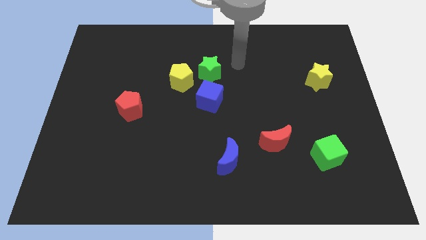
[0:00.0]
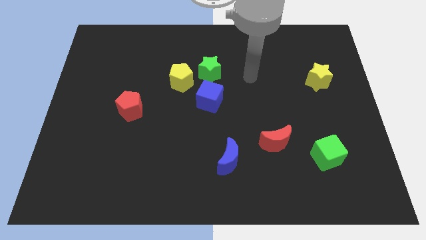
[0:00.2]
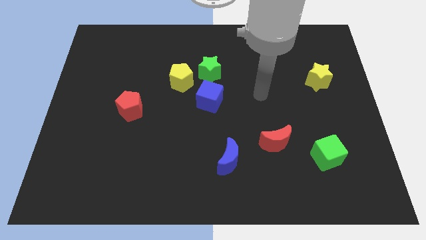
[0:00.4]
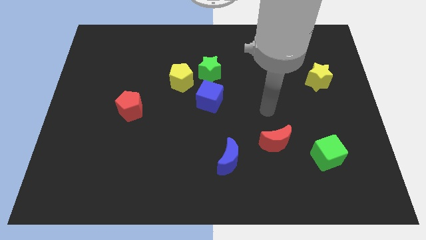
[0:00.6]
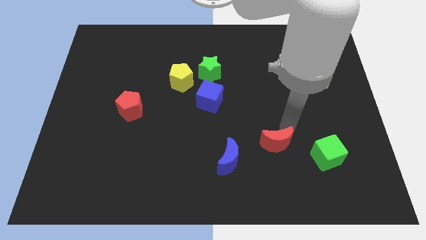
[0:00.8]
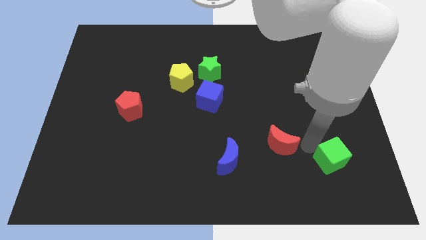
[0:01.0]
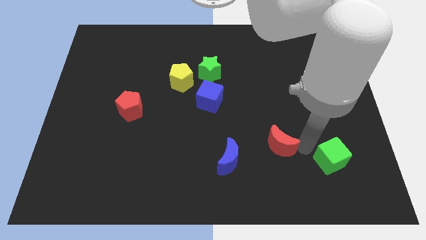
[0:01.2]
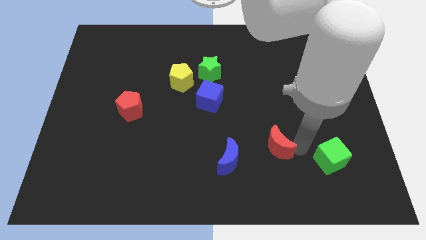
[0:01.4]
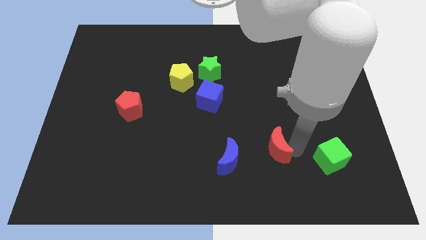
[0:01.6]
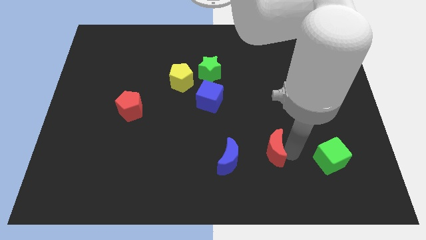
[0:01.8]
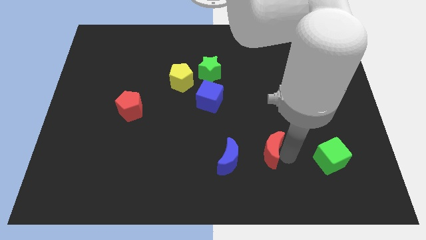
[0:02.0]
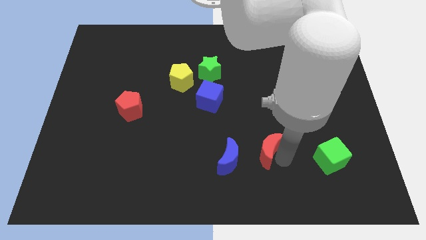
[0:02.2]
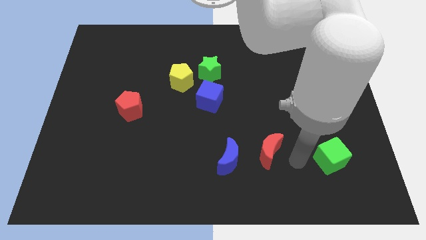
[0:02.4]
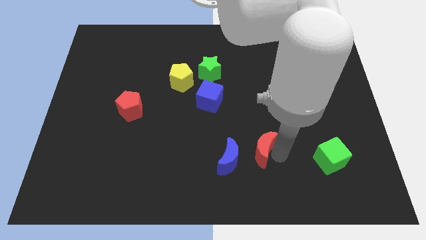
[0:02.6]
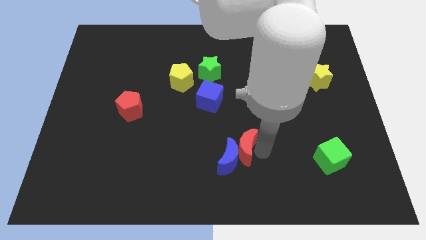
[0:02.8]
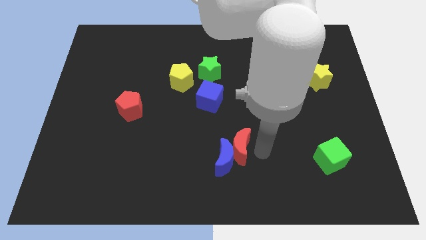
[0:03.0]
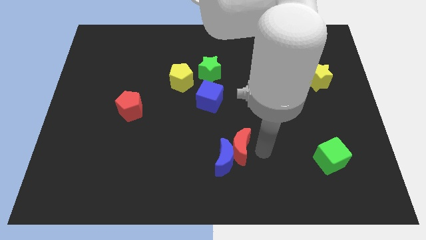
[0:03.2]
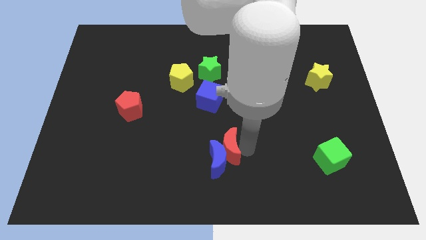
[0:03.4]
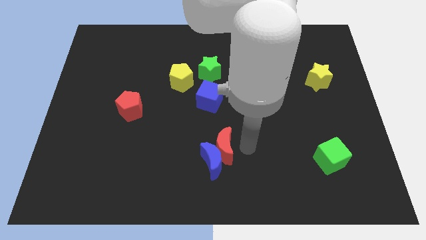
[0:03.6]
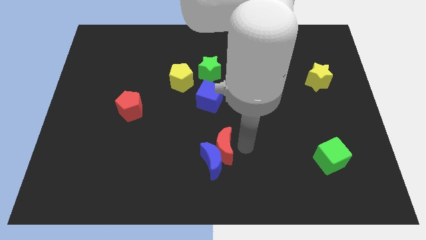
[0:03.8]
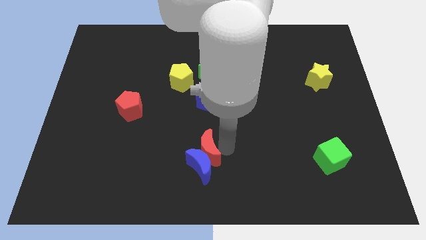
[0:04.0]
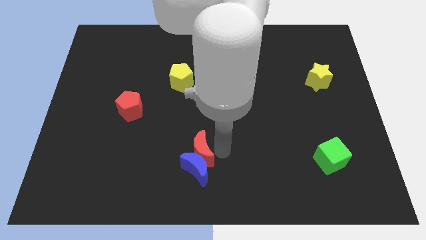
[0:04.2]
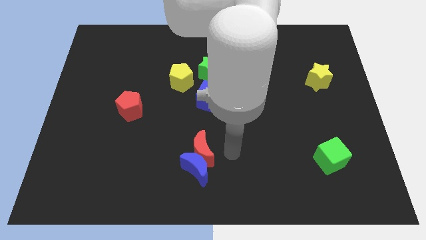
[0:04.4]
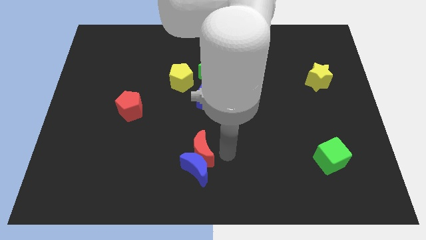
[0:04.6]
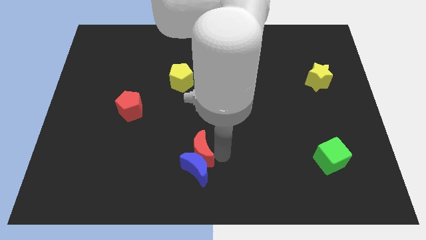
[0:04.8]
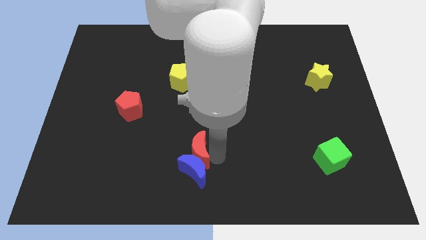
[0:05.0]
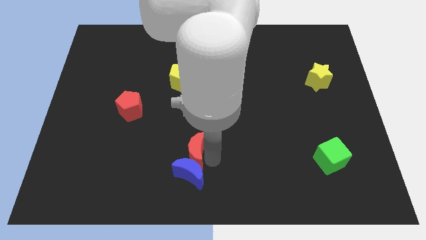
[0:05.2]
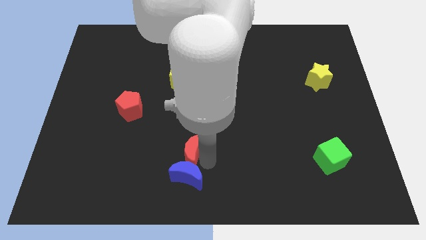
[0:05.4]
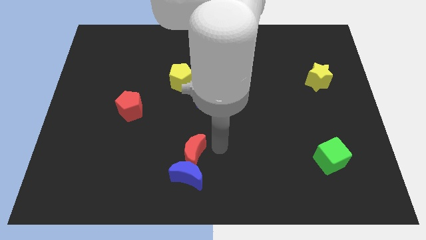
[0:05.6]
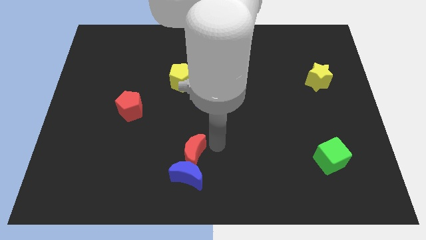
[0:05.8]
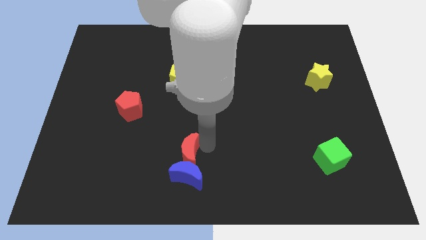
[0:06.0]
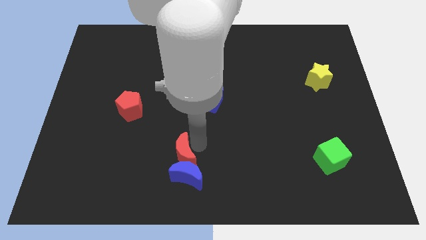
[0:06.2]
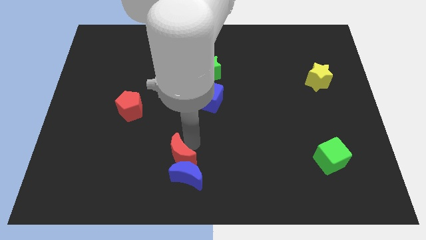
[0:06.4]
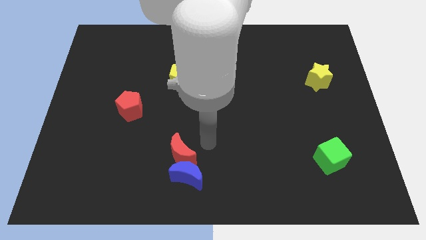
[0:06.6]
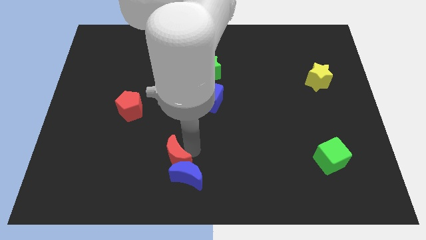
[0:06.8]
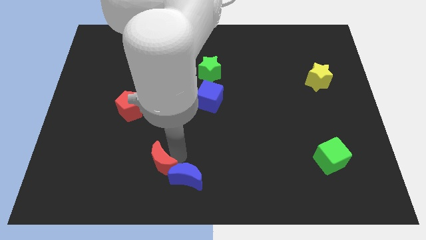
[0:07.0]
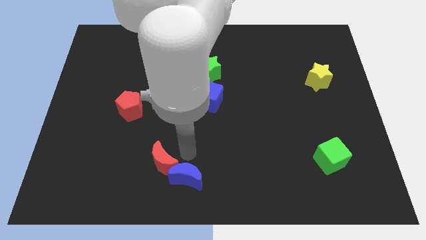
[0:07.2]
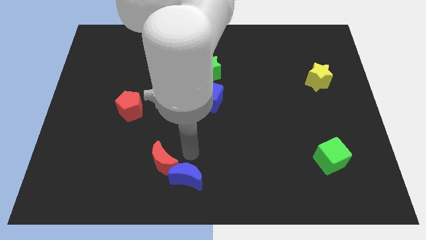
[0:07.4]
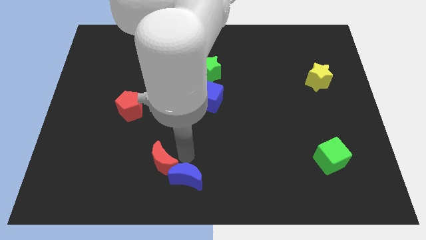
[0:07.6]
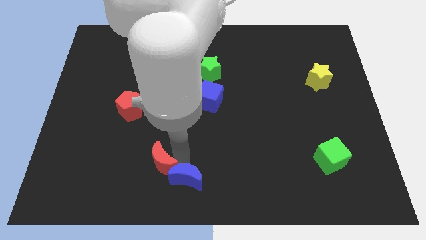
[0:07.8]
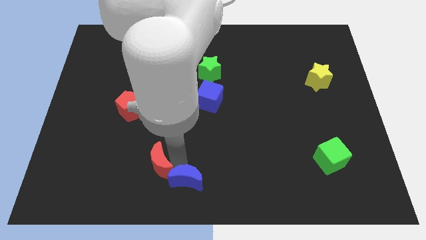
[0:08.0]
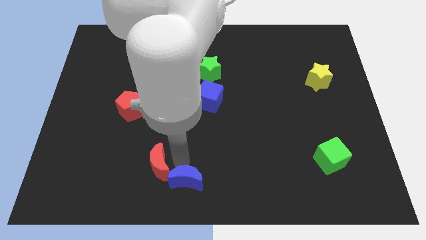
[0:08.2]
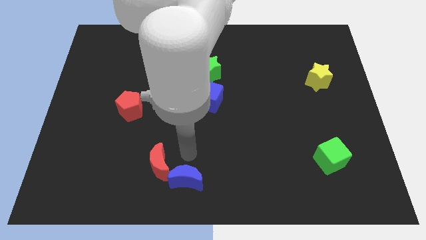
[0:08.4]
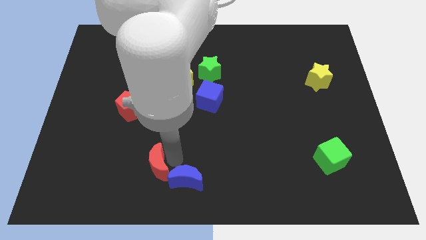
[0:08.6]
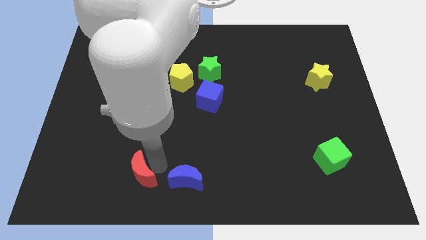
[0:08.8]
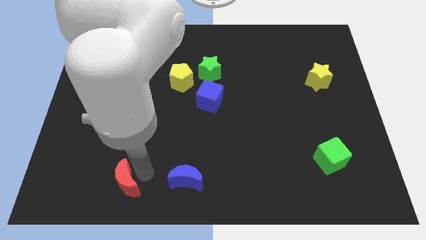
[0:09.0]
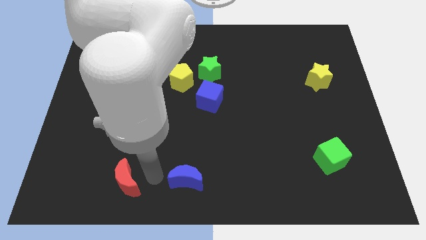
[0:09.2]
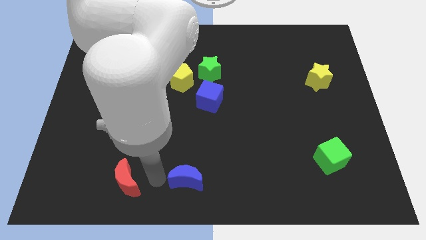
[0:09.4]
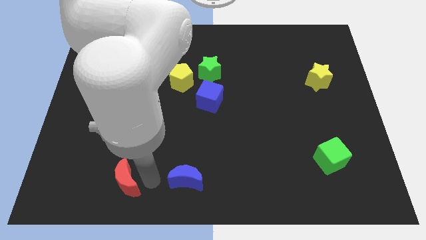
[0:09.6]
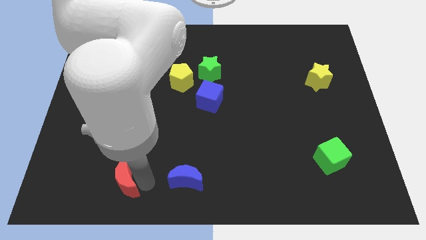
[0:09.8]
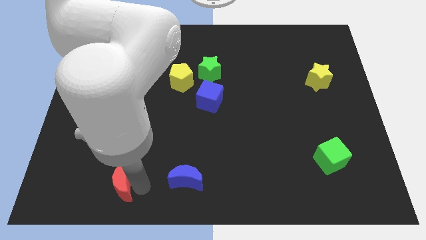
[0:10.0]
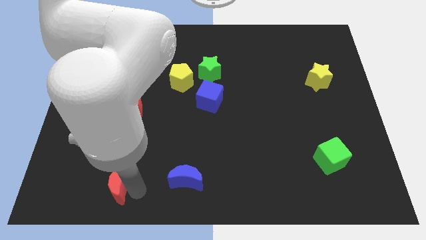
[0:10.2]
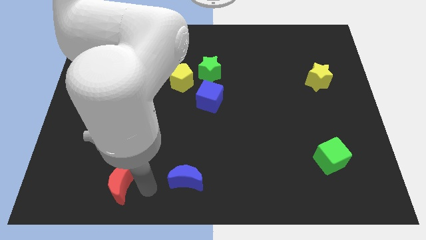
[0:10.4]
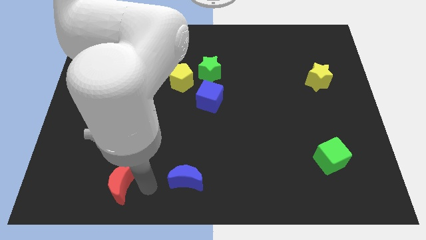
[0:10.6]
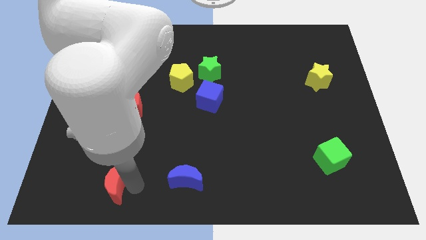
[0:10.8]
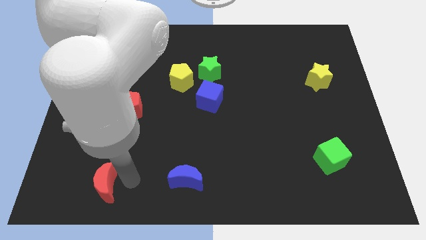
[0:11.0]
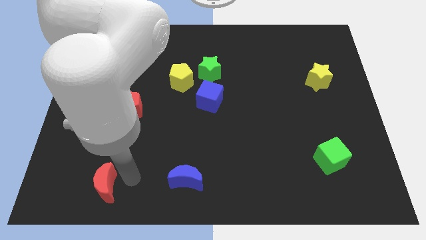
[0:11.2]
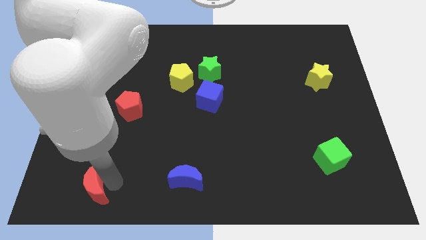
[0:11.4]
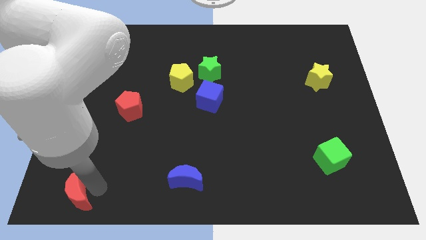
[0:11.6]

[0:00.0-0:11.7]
push the red moon to the bottom left corner
